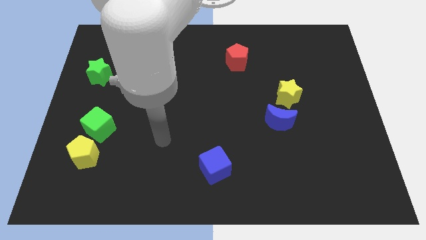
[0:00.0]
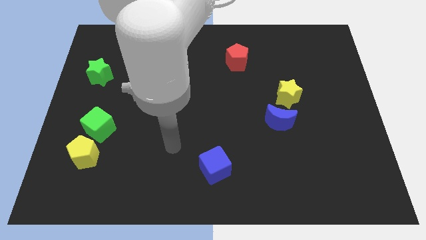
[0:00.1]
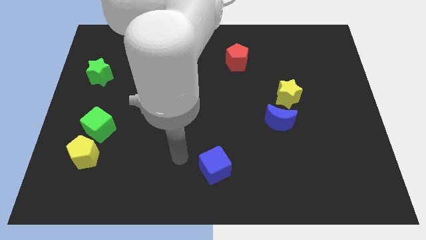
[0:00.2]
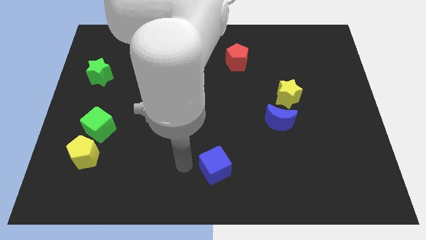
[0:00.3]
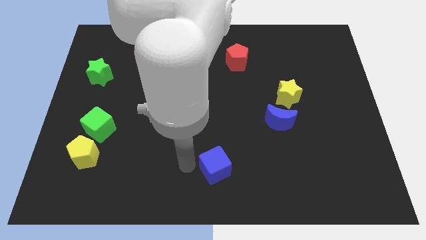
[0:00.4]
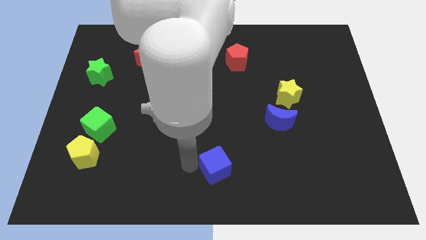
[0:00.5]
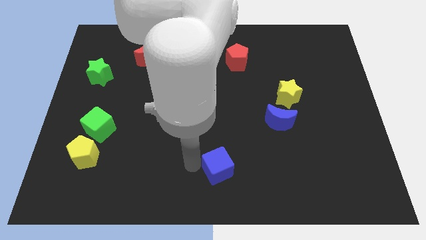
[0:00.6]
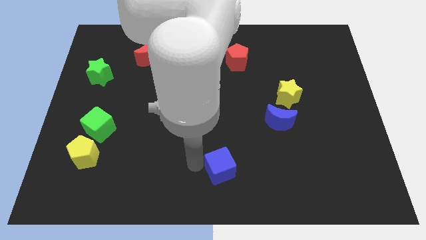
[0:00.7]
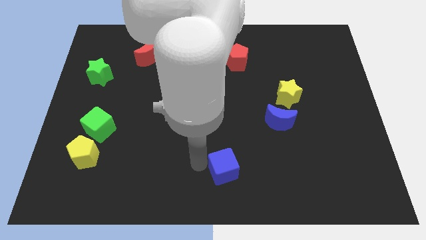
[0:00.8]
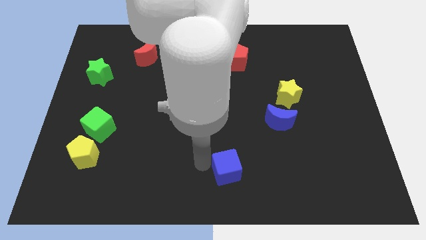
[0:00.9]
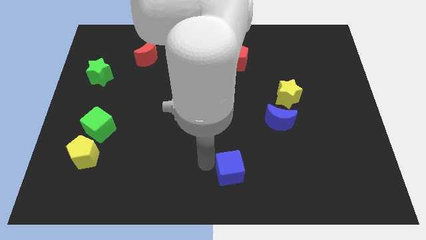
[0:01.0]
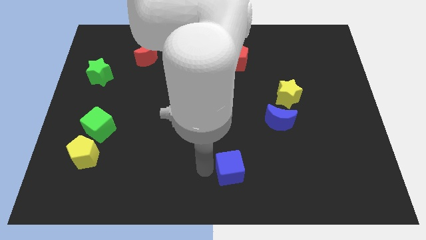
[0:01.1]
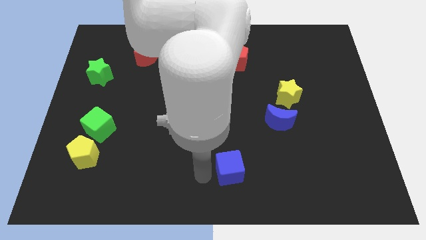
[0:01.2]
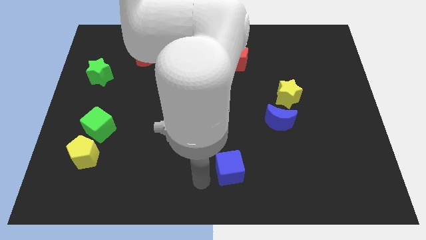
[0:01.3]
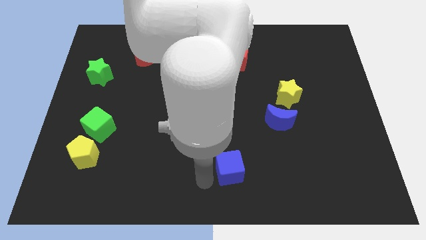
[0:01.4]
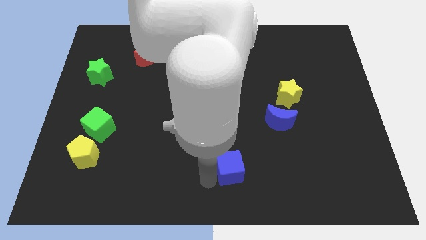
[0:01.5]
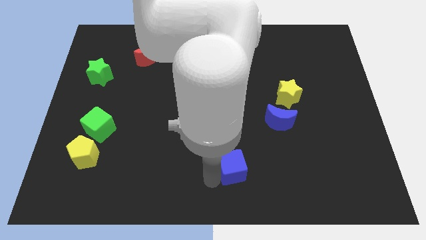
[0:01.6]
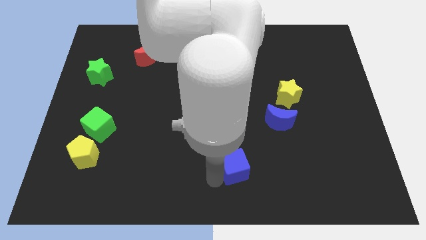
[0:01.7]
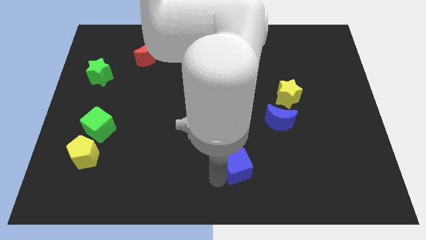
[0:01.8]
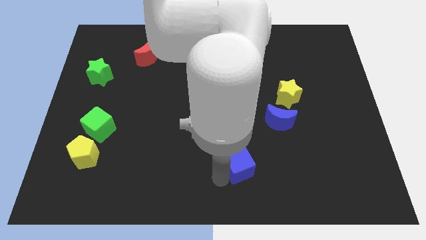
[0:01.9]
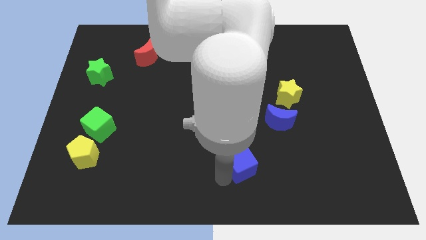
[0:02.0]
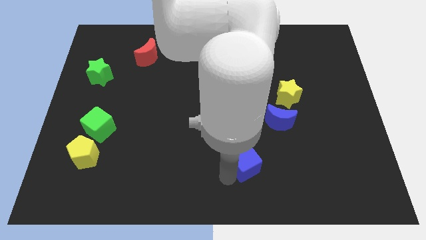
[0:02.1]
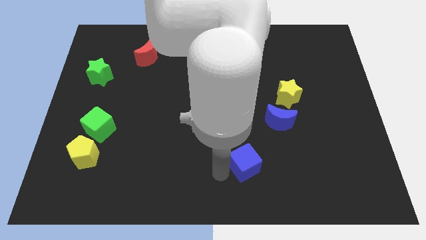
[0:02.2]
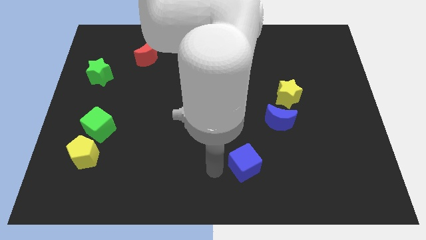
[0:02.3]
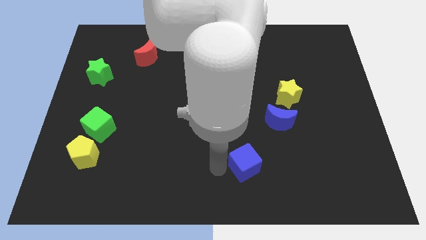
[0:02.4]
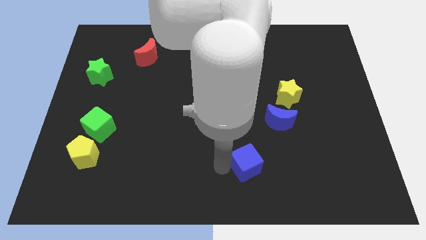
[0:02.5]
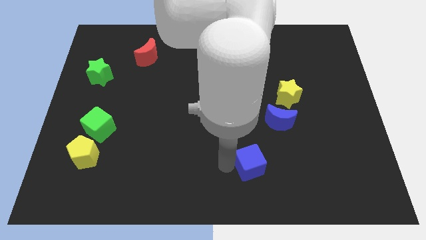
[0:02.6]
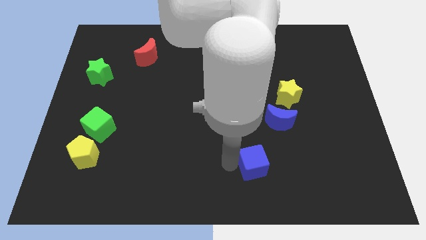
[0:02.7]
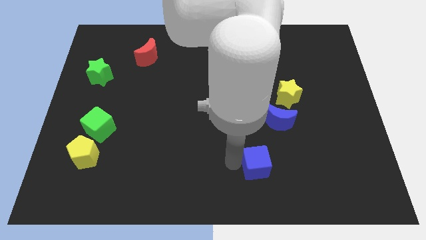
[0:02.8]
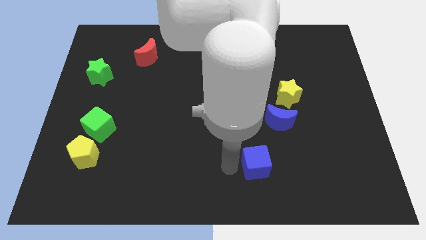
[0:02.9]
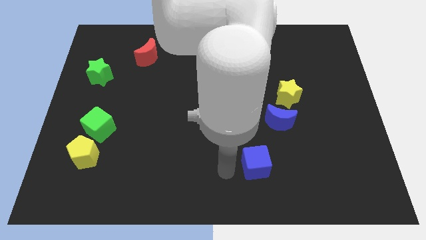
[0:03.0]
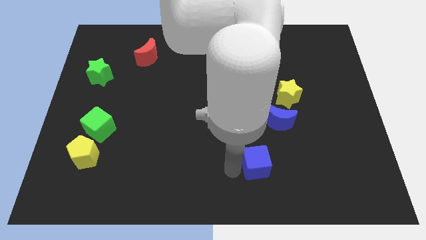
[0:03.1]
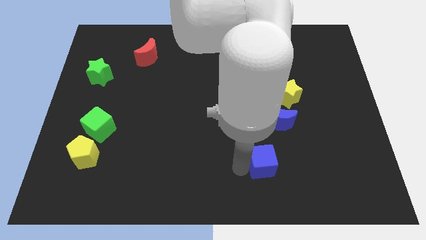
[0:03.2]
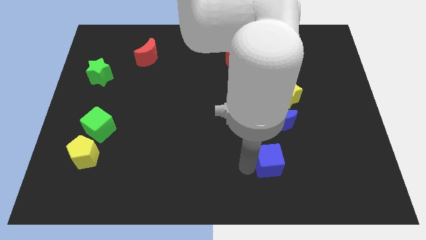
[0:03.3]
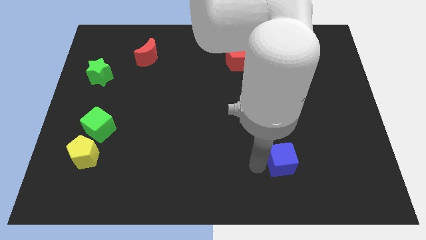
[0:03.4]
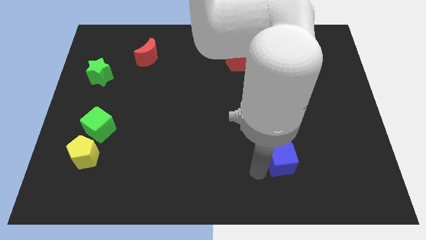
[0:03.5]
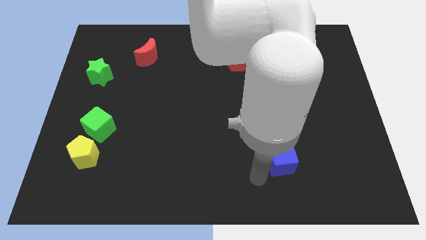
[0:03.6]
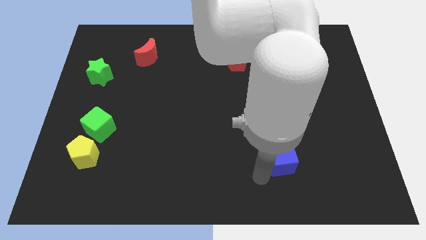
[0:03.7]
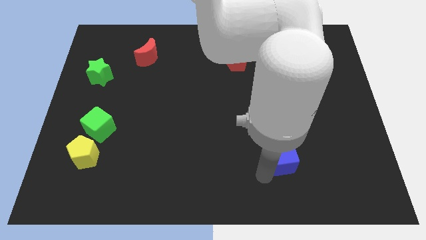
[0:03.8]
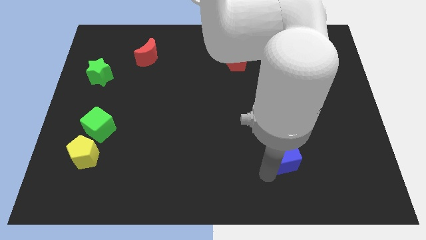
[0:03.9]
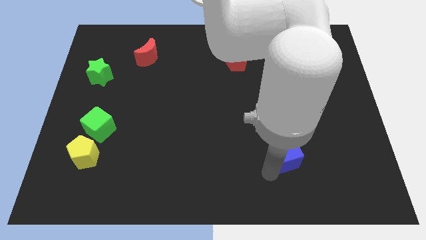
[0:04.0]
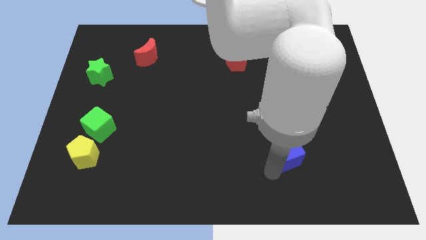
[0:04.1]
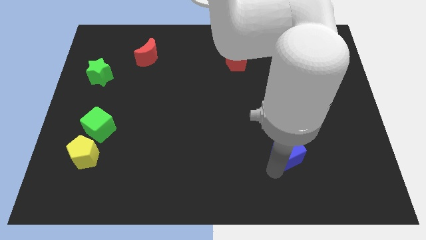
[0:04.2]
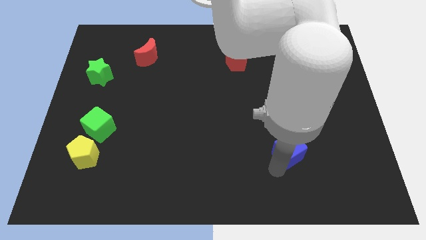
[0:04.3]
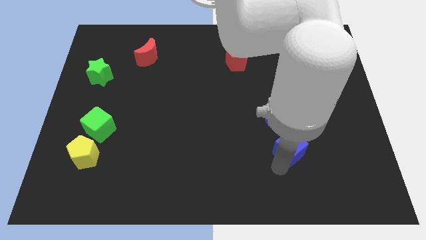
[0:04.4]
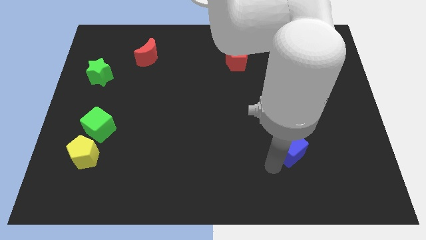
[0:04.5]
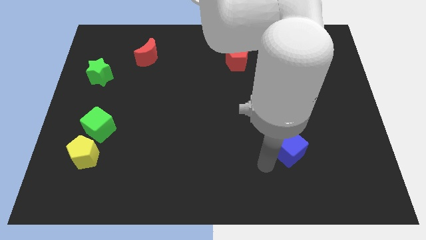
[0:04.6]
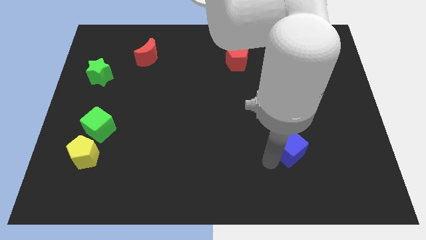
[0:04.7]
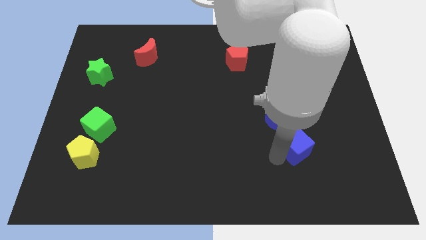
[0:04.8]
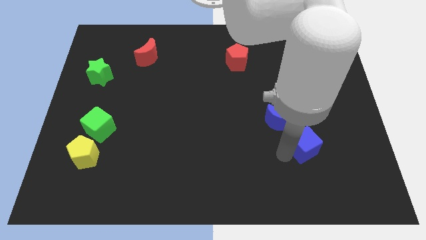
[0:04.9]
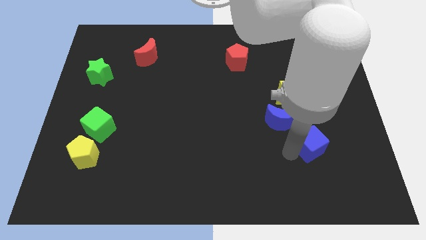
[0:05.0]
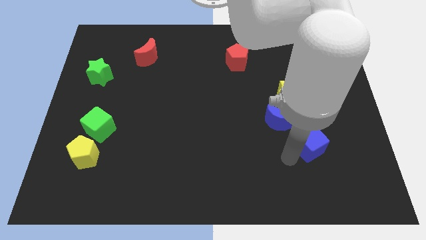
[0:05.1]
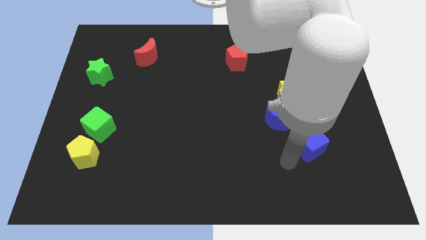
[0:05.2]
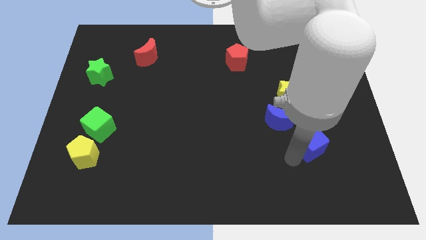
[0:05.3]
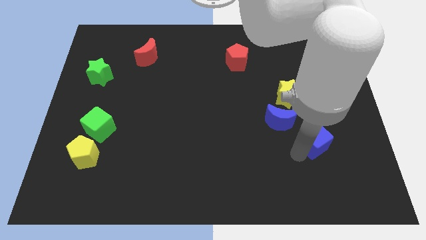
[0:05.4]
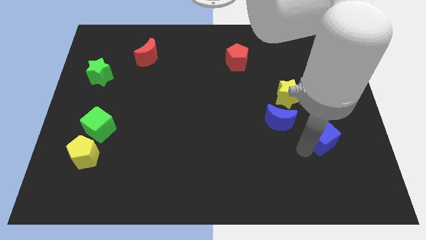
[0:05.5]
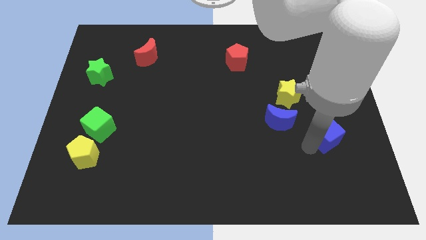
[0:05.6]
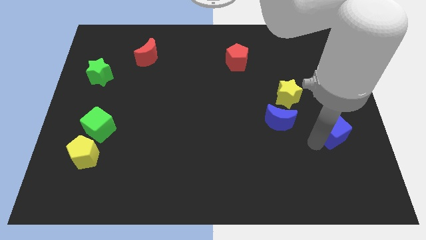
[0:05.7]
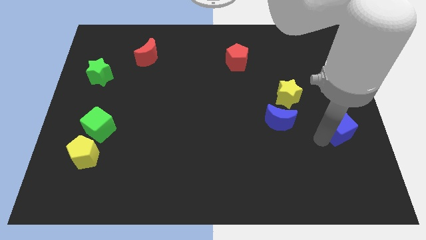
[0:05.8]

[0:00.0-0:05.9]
push the blue cube to the right side
